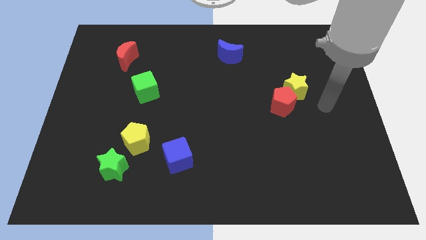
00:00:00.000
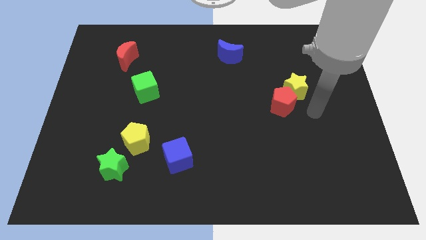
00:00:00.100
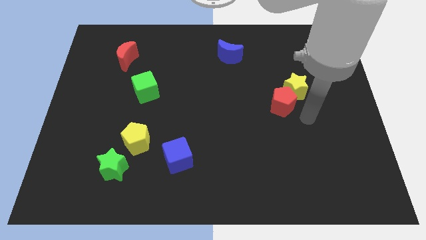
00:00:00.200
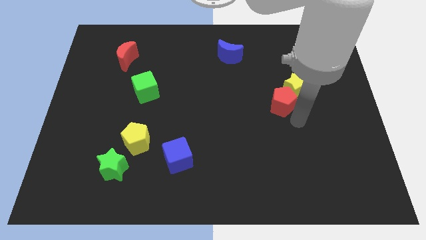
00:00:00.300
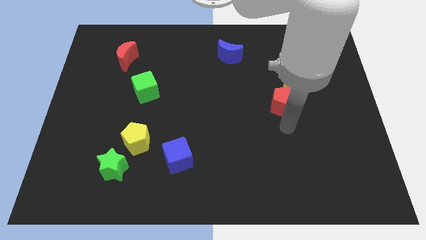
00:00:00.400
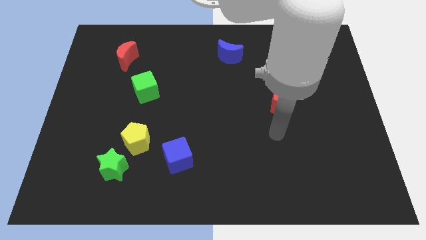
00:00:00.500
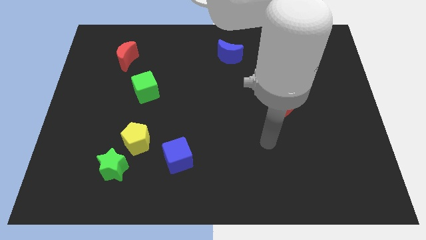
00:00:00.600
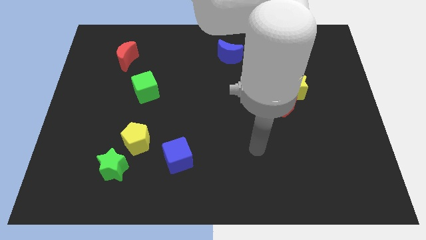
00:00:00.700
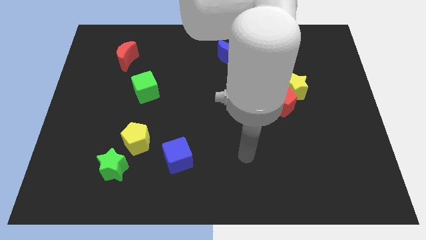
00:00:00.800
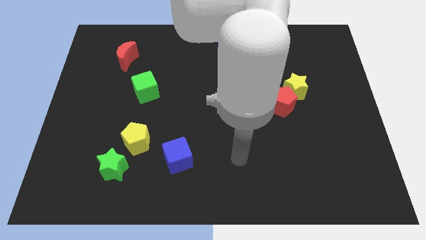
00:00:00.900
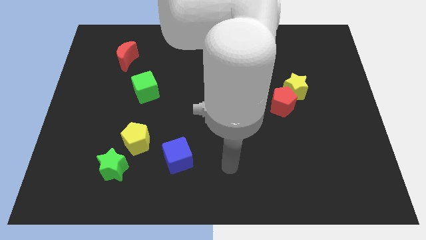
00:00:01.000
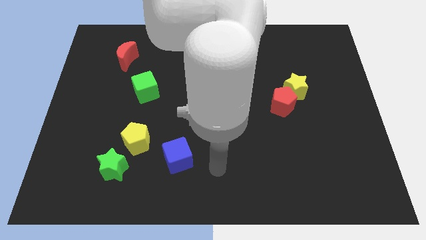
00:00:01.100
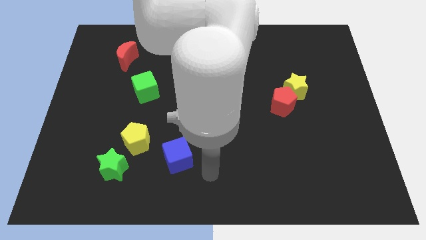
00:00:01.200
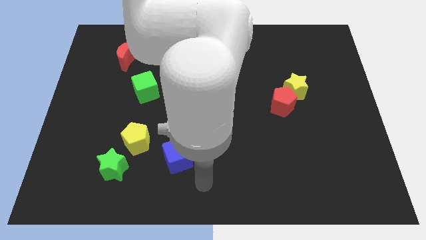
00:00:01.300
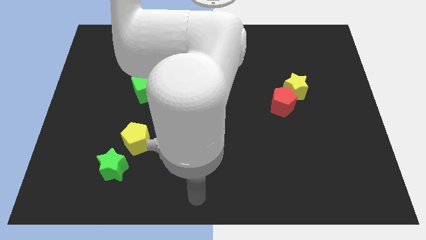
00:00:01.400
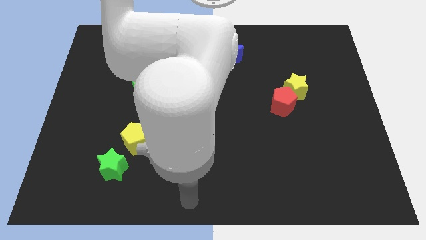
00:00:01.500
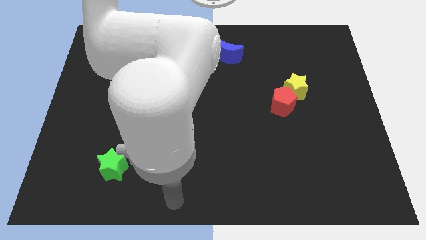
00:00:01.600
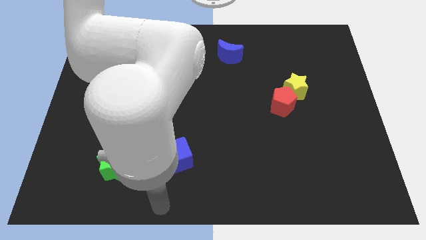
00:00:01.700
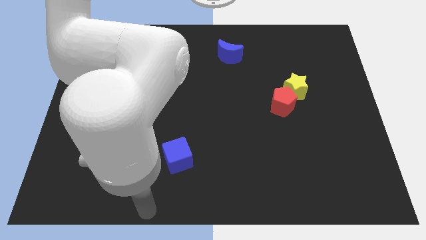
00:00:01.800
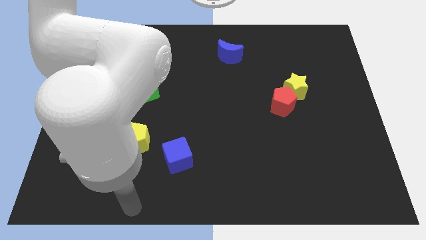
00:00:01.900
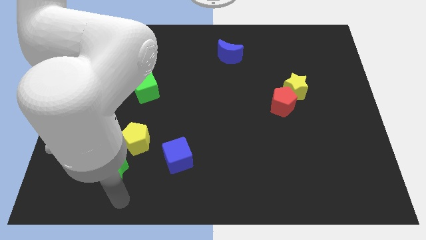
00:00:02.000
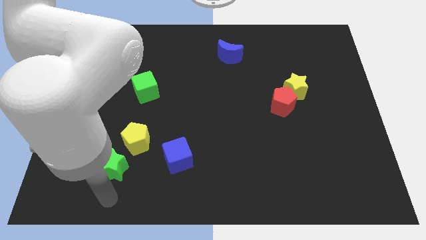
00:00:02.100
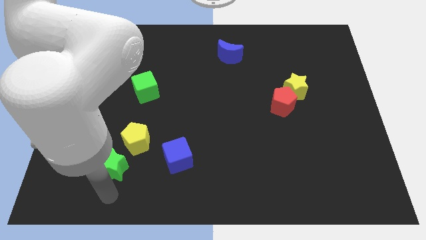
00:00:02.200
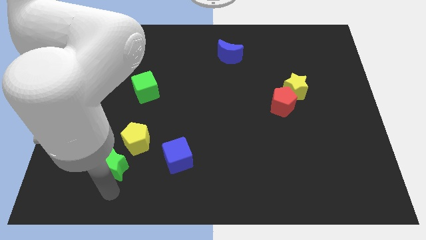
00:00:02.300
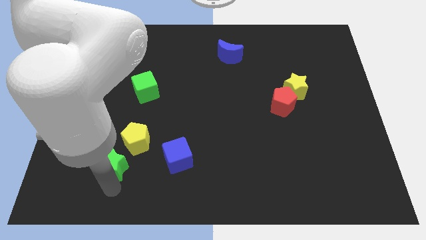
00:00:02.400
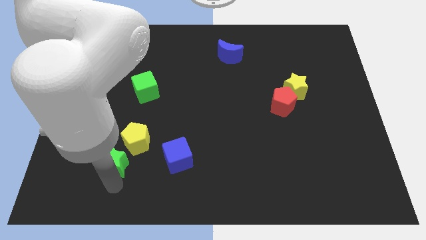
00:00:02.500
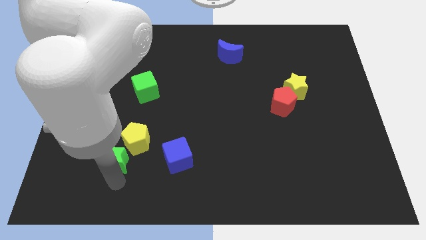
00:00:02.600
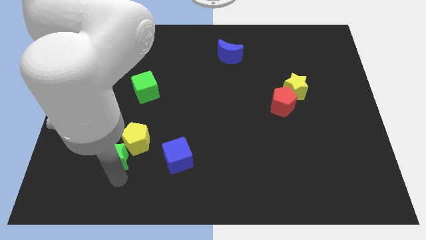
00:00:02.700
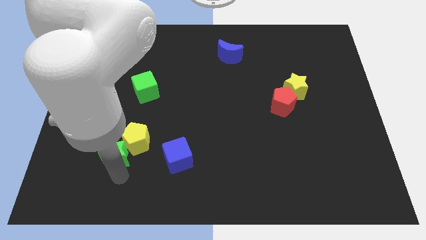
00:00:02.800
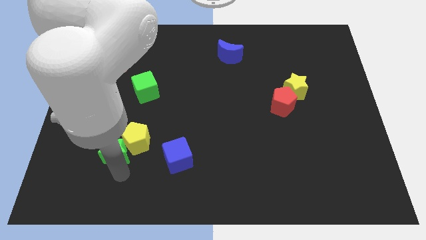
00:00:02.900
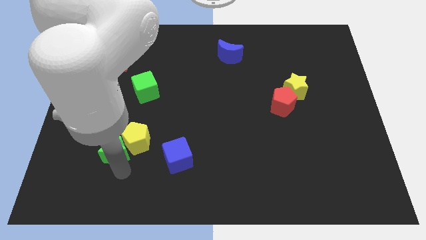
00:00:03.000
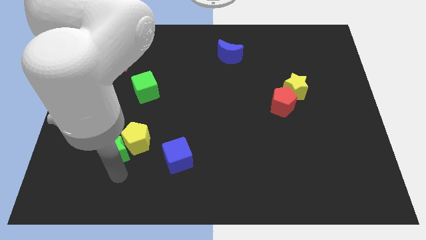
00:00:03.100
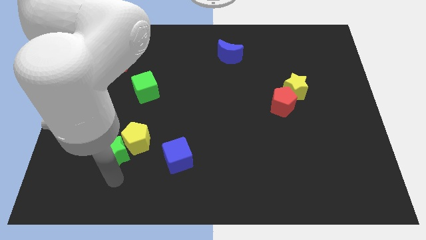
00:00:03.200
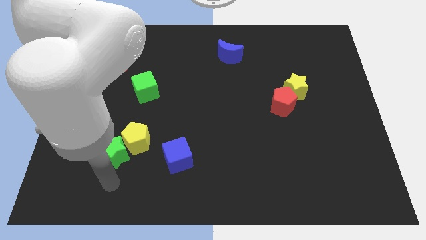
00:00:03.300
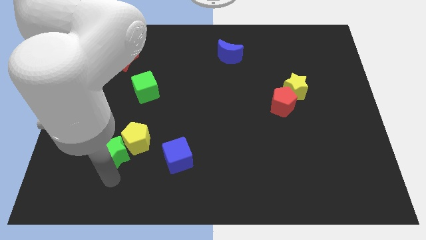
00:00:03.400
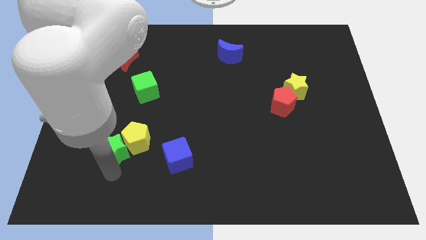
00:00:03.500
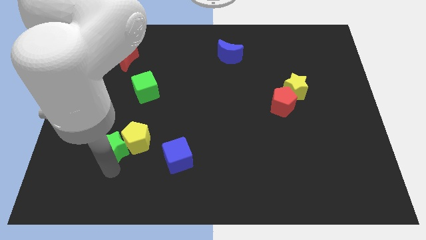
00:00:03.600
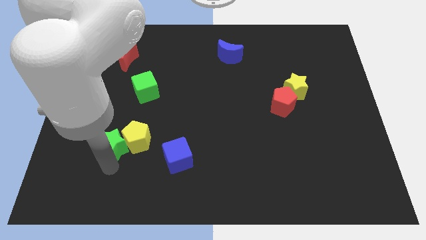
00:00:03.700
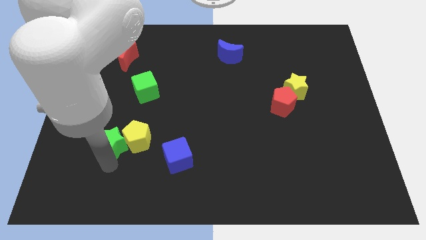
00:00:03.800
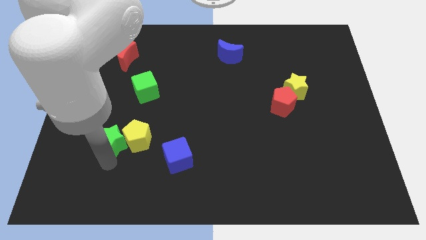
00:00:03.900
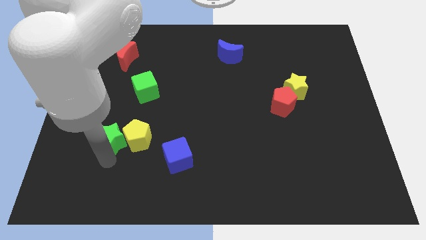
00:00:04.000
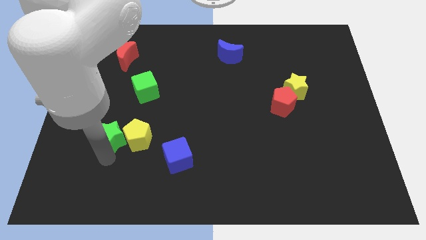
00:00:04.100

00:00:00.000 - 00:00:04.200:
push the green star up slightly

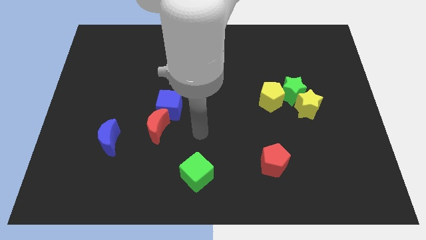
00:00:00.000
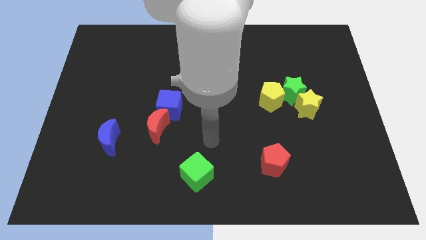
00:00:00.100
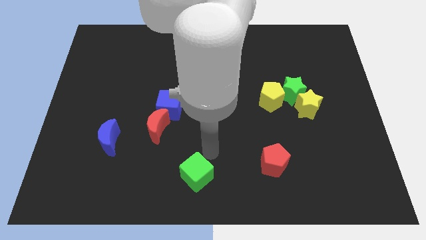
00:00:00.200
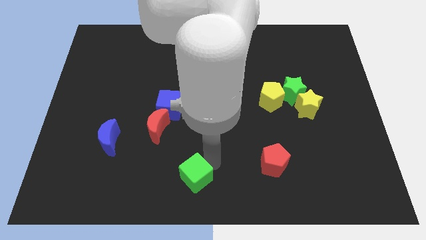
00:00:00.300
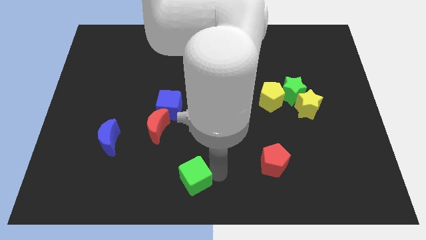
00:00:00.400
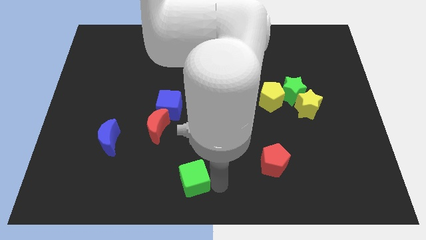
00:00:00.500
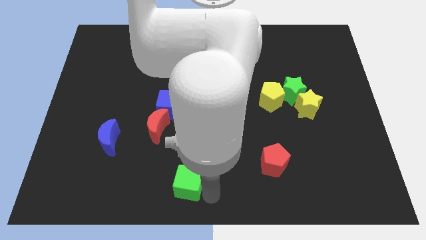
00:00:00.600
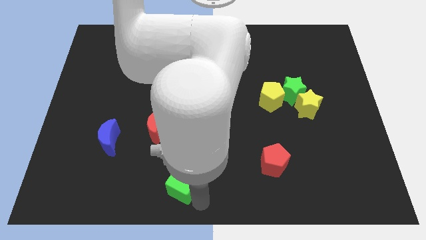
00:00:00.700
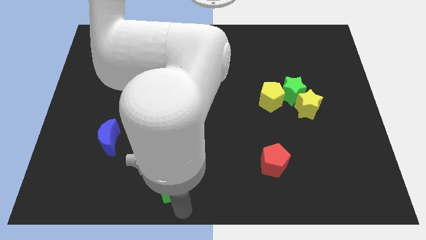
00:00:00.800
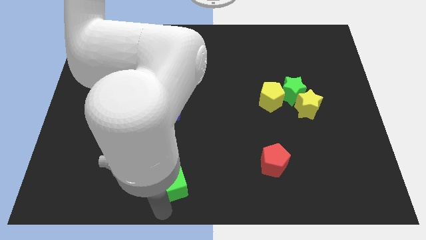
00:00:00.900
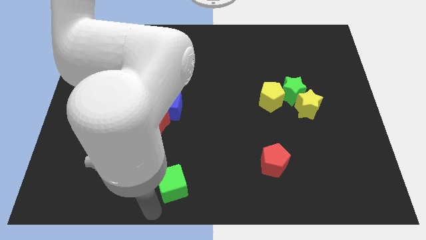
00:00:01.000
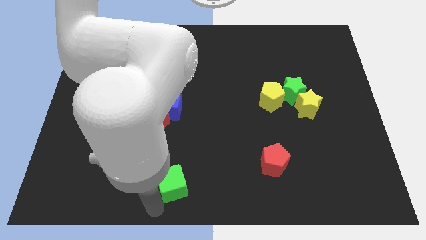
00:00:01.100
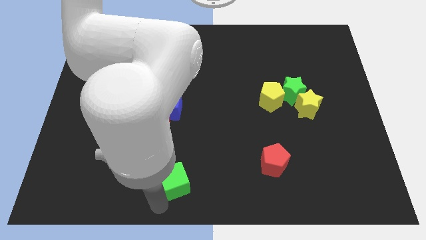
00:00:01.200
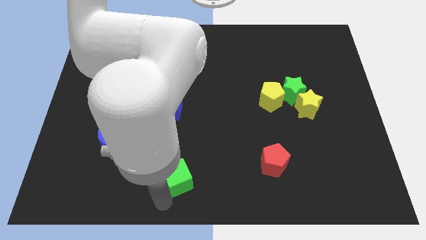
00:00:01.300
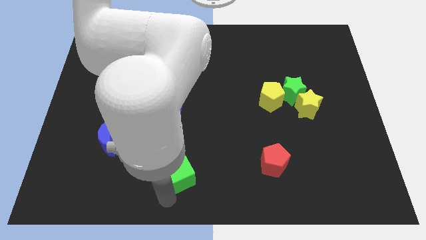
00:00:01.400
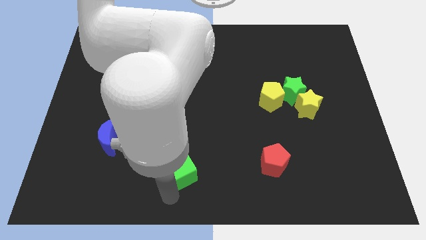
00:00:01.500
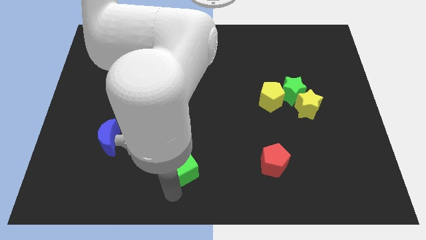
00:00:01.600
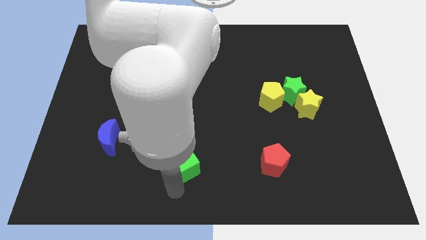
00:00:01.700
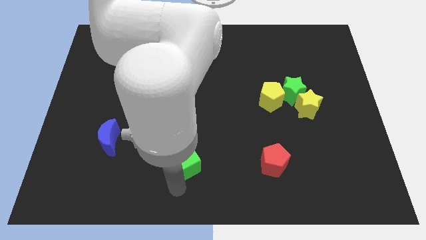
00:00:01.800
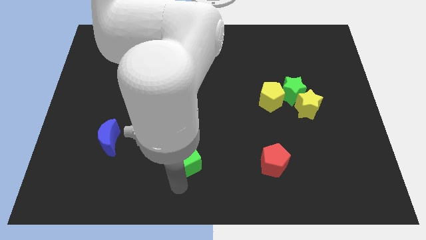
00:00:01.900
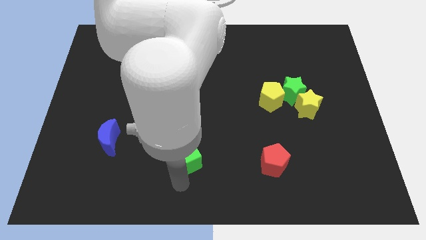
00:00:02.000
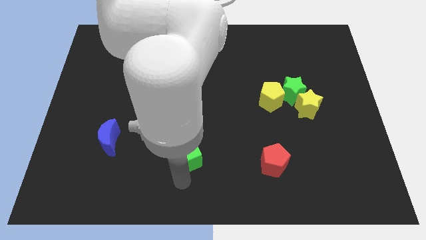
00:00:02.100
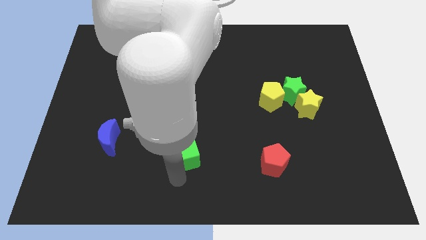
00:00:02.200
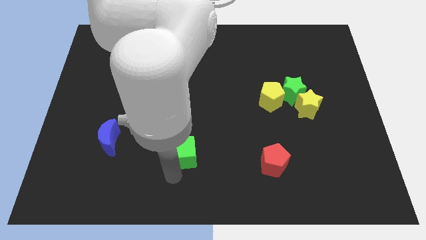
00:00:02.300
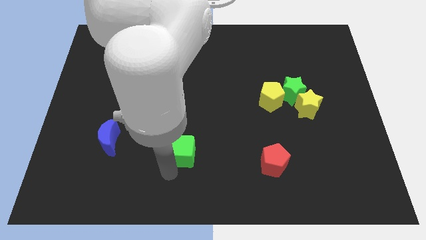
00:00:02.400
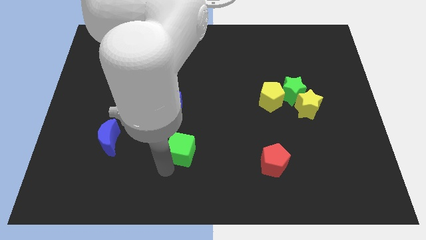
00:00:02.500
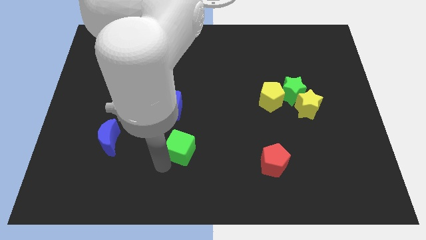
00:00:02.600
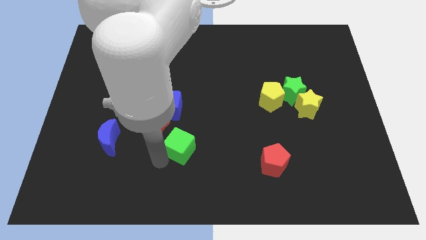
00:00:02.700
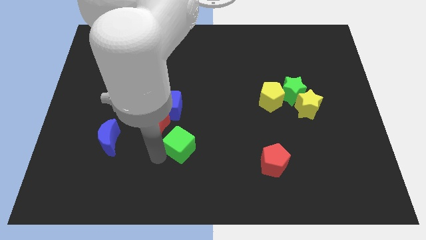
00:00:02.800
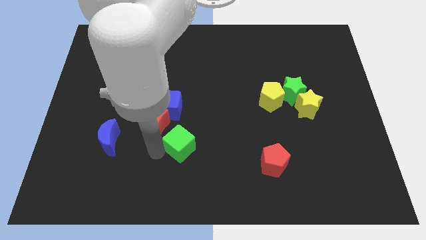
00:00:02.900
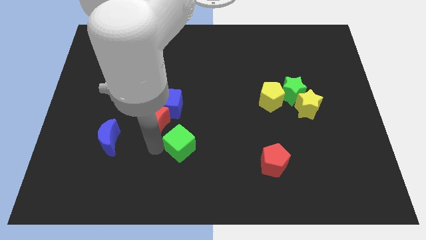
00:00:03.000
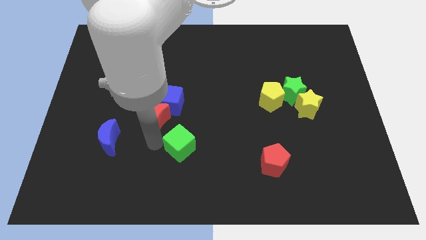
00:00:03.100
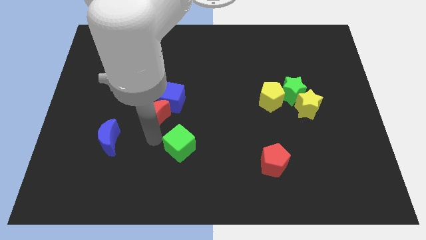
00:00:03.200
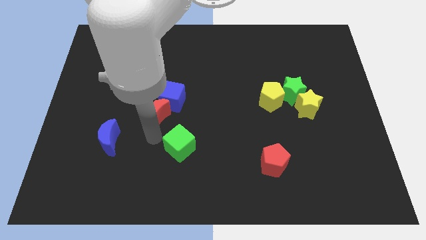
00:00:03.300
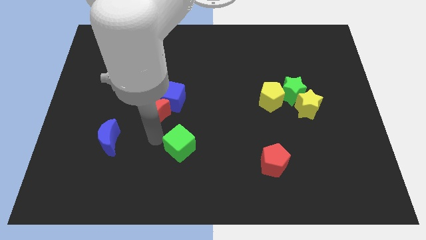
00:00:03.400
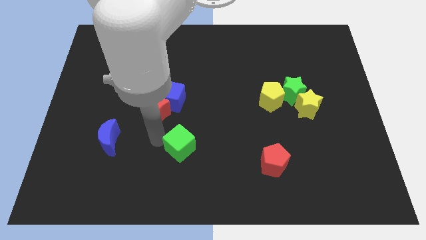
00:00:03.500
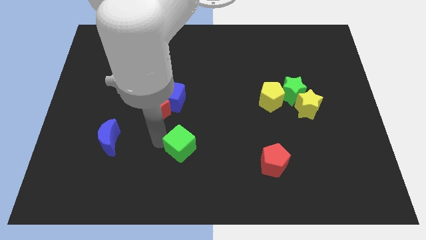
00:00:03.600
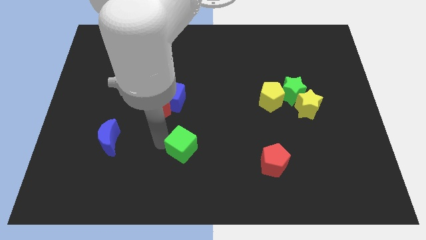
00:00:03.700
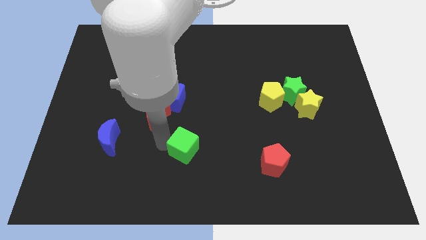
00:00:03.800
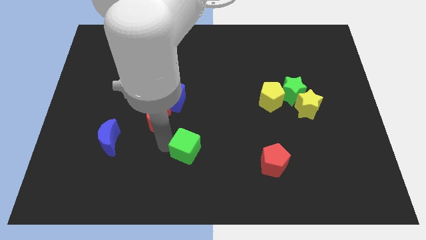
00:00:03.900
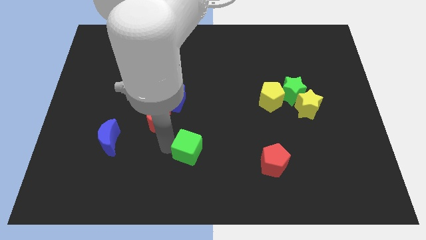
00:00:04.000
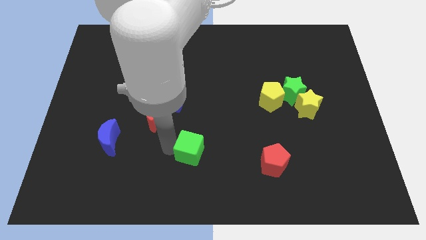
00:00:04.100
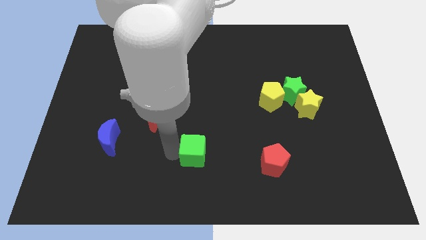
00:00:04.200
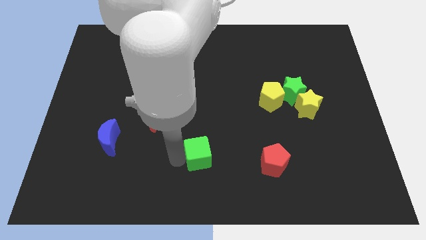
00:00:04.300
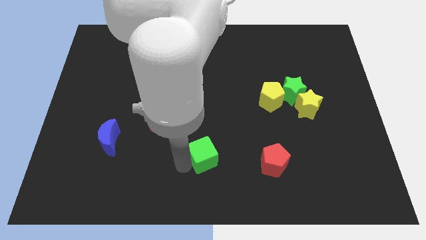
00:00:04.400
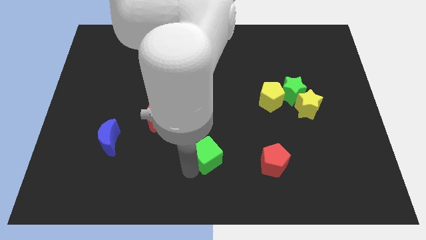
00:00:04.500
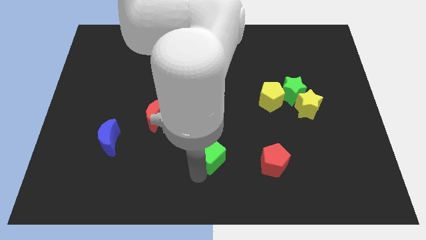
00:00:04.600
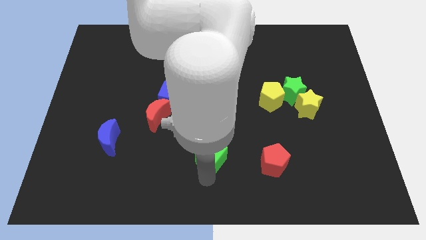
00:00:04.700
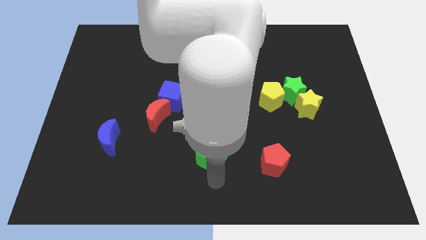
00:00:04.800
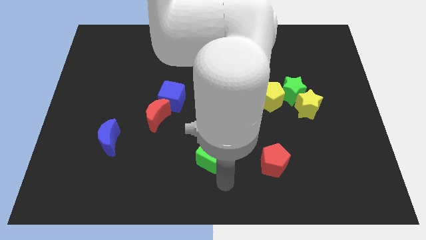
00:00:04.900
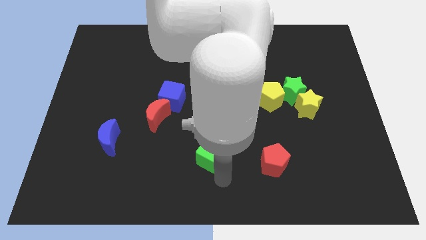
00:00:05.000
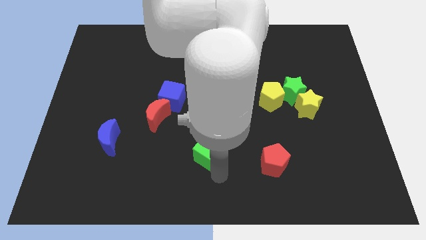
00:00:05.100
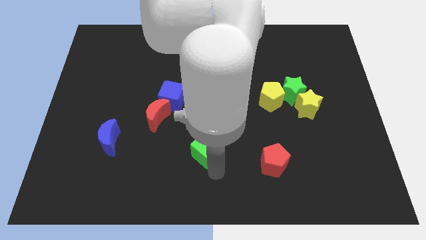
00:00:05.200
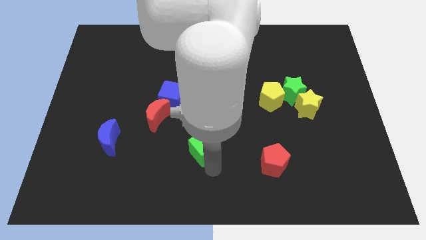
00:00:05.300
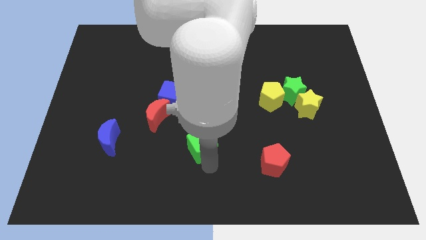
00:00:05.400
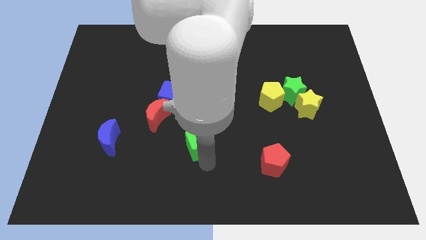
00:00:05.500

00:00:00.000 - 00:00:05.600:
slide the green cube a bit upwards
